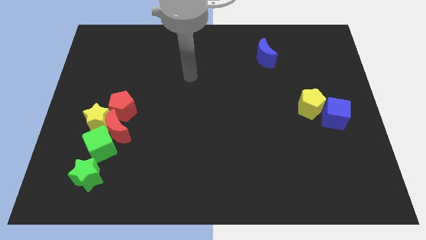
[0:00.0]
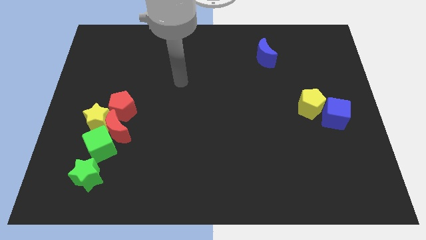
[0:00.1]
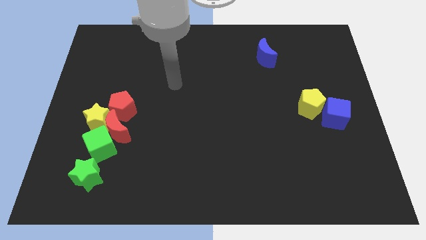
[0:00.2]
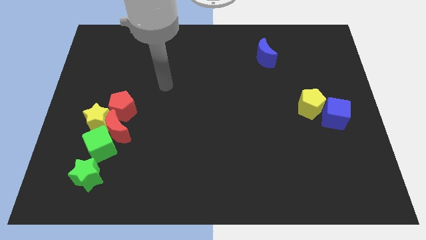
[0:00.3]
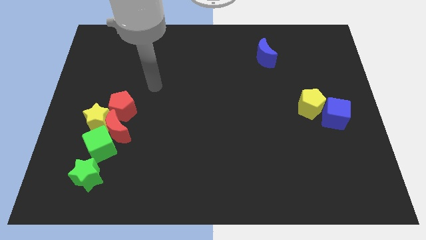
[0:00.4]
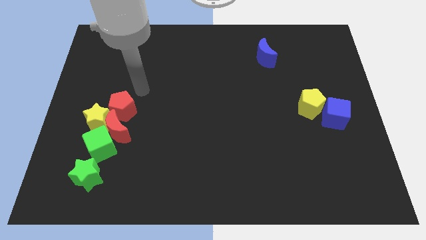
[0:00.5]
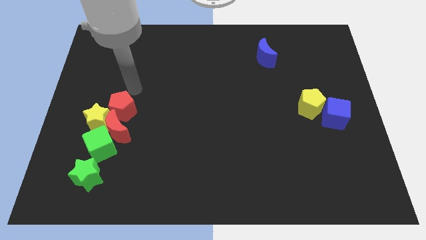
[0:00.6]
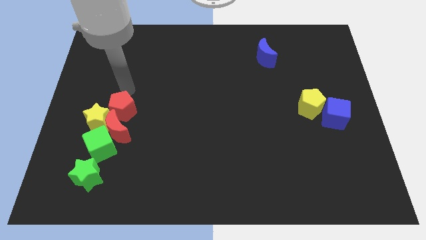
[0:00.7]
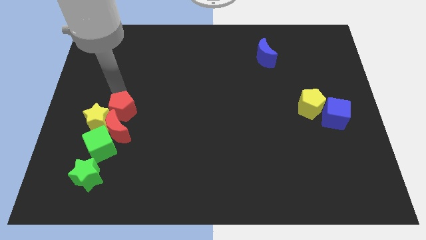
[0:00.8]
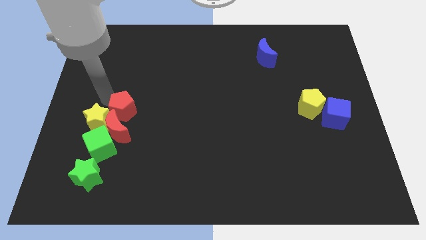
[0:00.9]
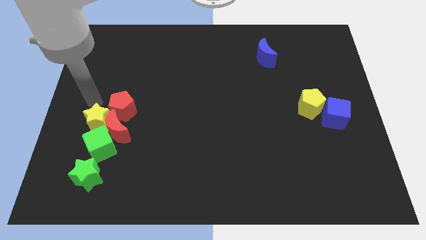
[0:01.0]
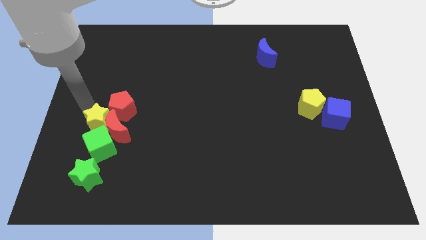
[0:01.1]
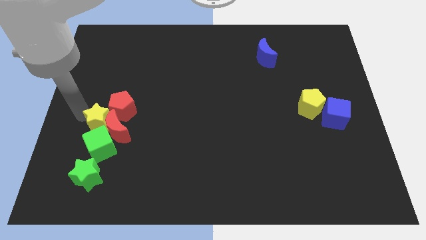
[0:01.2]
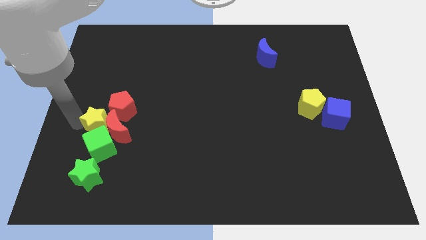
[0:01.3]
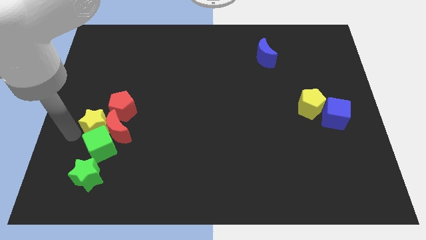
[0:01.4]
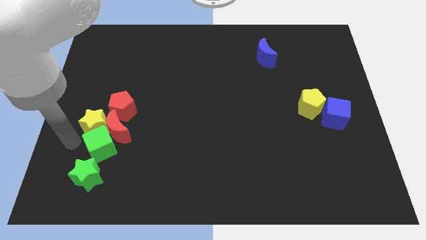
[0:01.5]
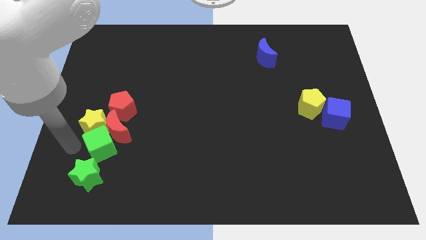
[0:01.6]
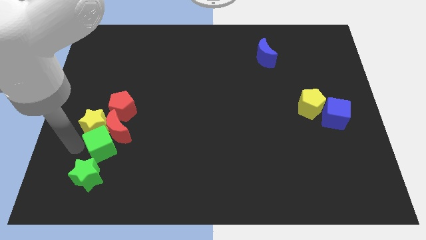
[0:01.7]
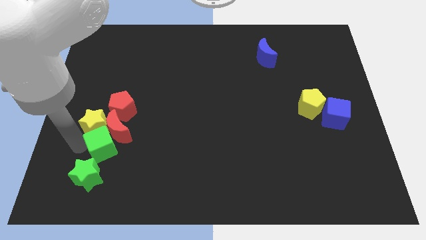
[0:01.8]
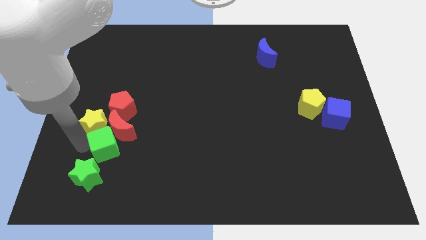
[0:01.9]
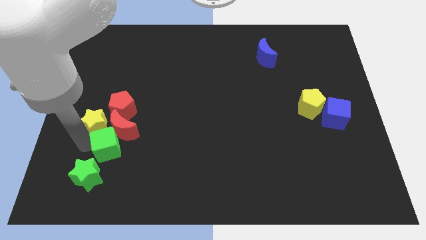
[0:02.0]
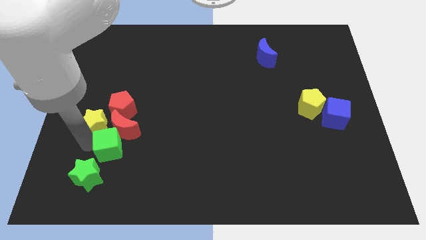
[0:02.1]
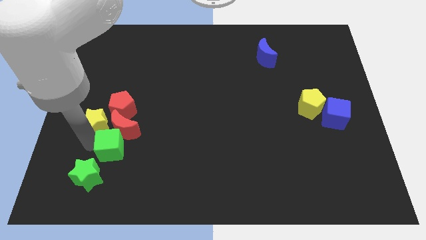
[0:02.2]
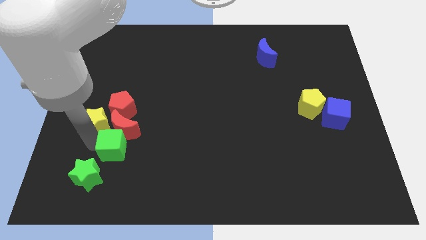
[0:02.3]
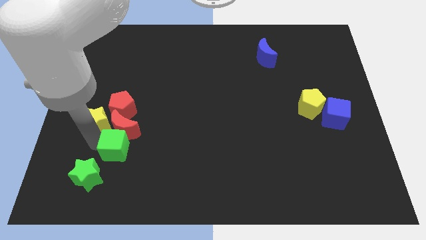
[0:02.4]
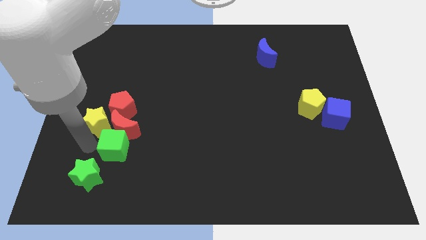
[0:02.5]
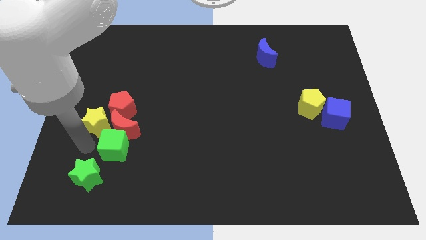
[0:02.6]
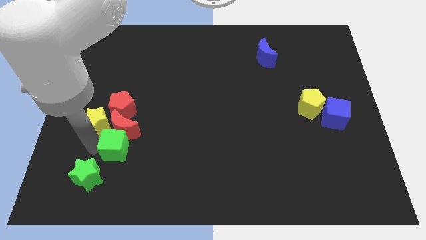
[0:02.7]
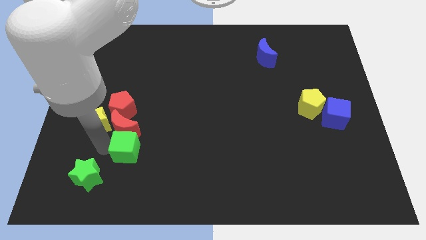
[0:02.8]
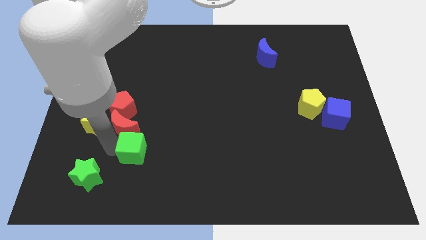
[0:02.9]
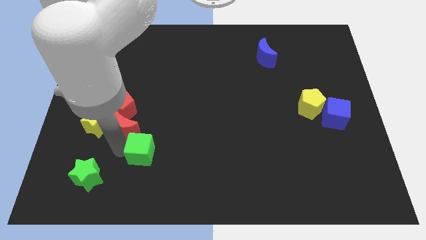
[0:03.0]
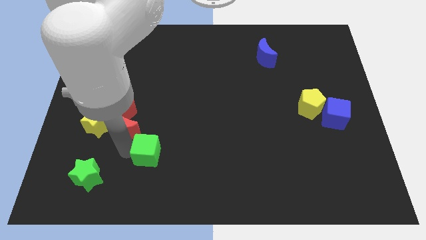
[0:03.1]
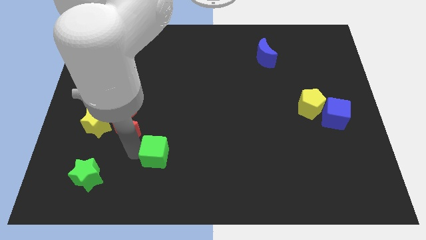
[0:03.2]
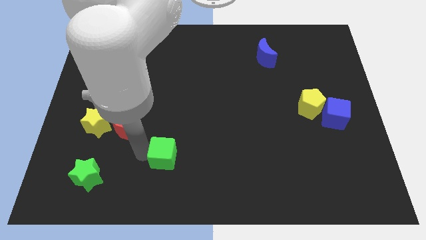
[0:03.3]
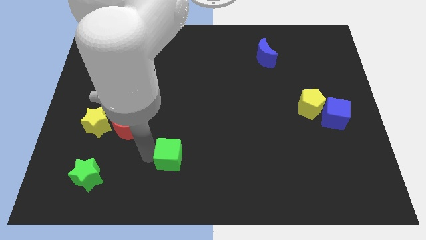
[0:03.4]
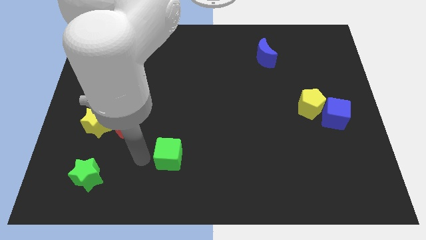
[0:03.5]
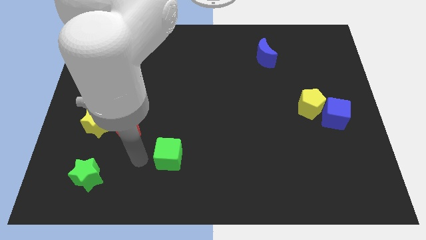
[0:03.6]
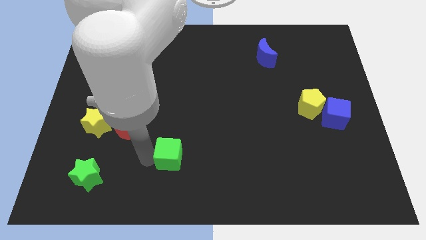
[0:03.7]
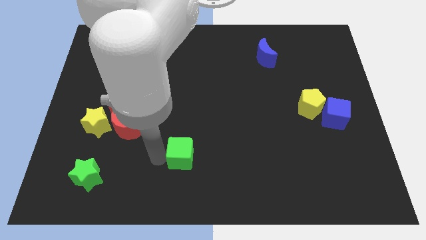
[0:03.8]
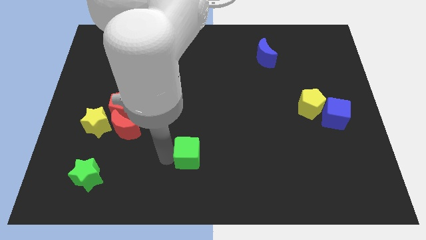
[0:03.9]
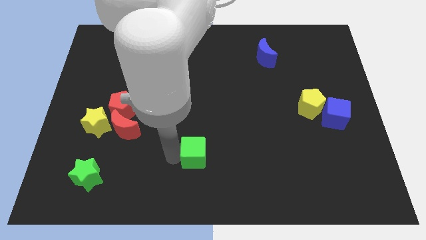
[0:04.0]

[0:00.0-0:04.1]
move the green cube right

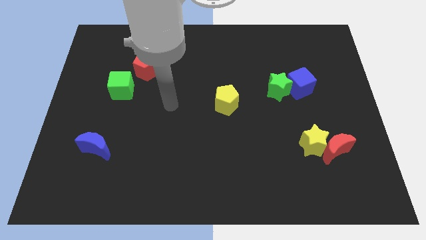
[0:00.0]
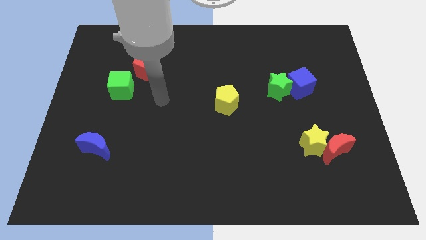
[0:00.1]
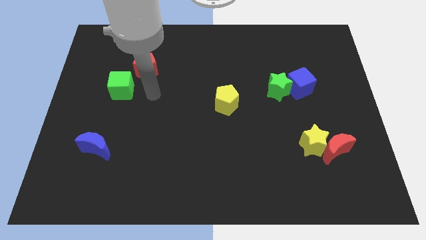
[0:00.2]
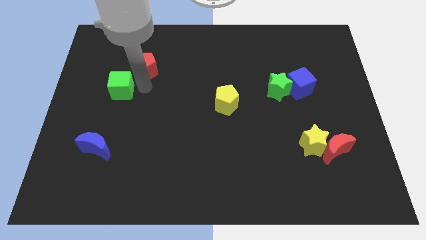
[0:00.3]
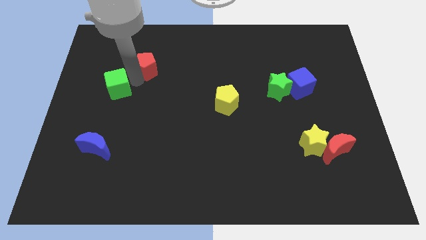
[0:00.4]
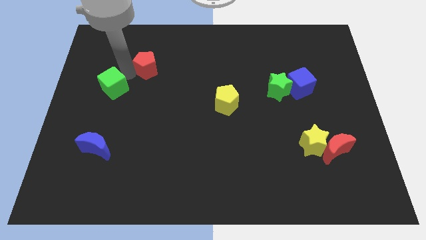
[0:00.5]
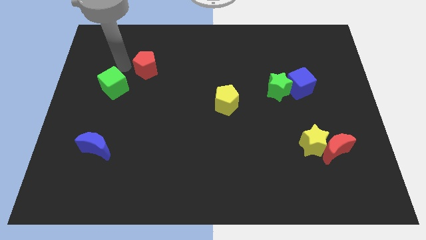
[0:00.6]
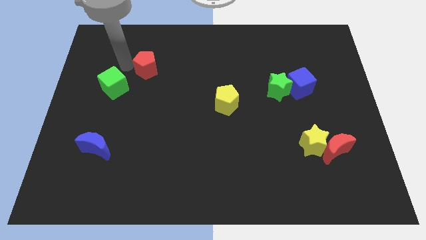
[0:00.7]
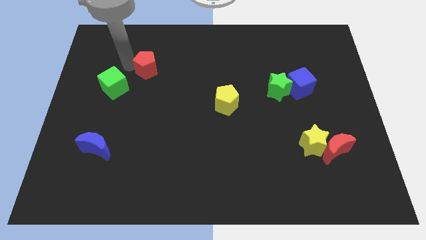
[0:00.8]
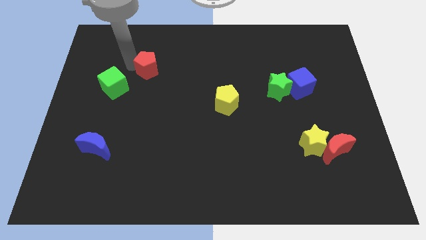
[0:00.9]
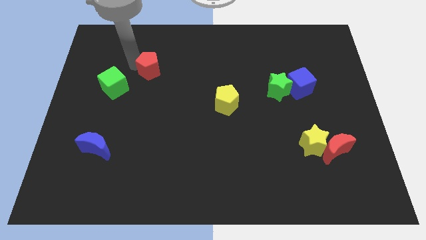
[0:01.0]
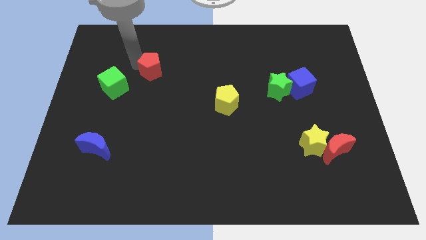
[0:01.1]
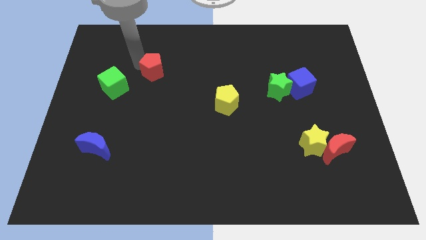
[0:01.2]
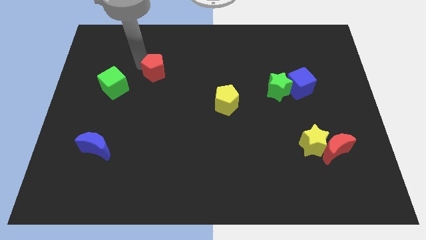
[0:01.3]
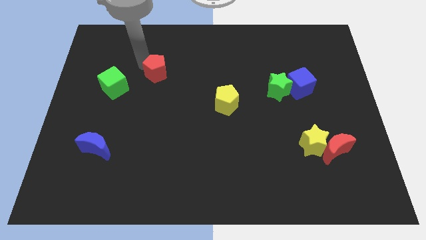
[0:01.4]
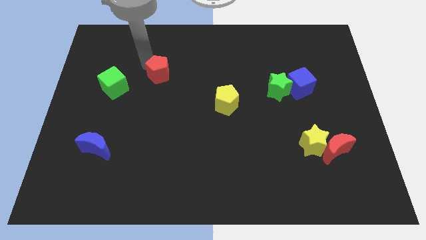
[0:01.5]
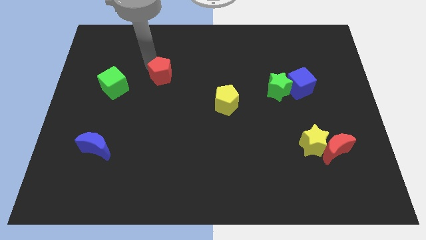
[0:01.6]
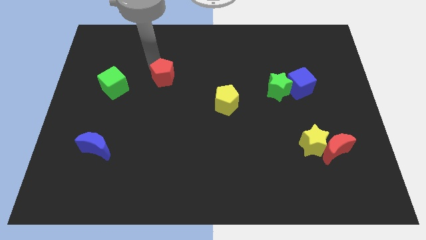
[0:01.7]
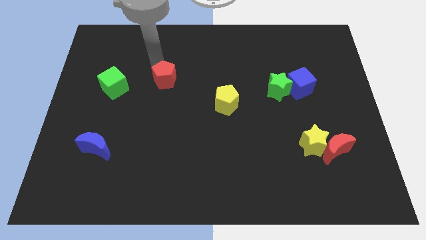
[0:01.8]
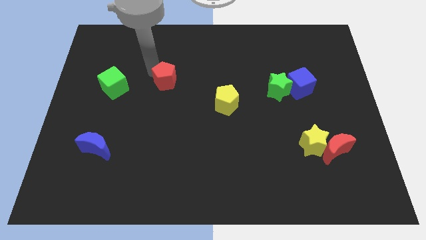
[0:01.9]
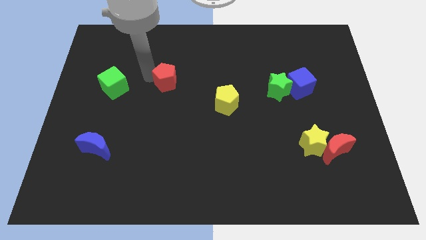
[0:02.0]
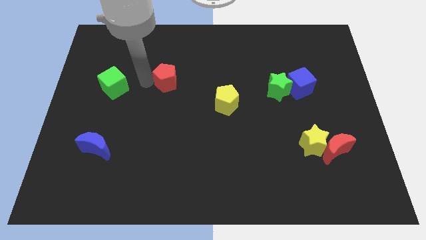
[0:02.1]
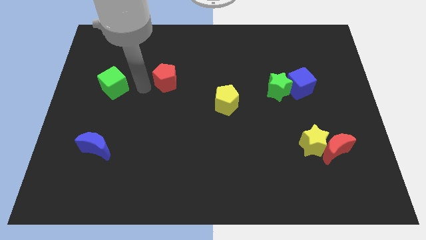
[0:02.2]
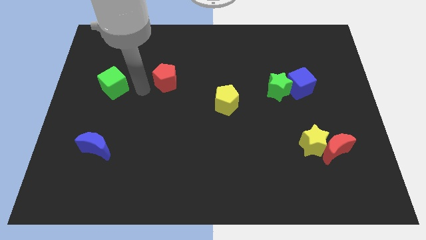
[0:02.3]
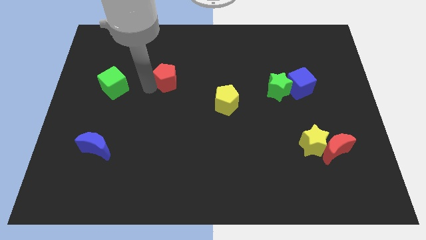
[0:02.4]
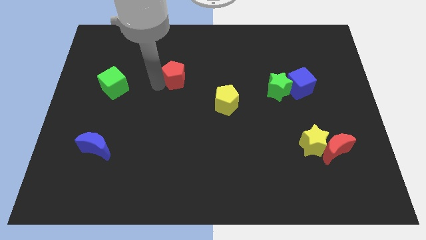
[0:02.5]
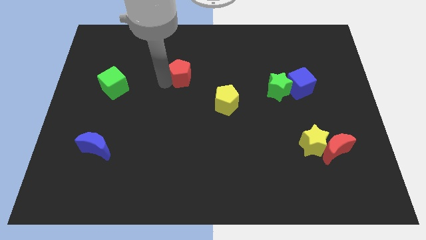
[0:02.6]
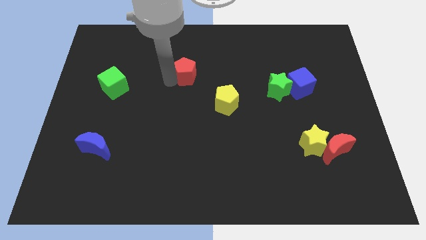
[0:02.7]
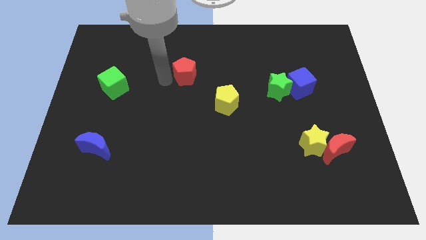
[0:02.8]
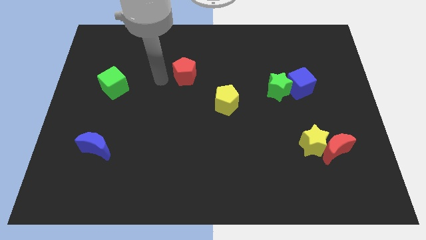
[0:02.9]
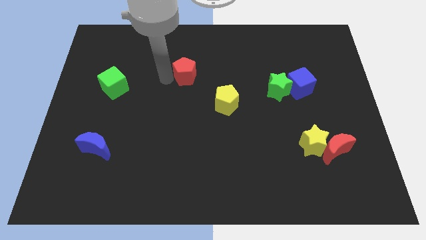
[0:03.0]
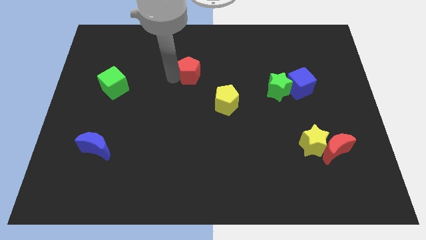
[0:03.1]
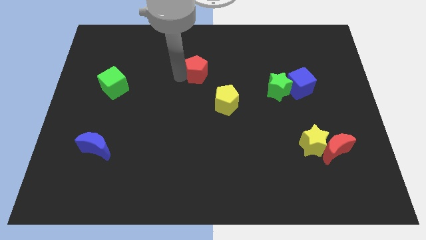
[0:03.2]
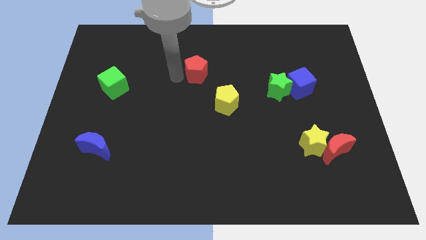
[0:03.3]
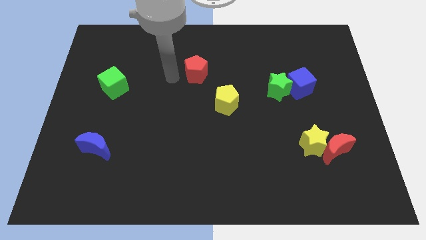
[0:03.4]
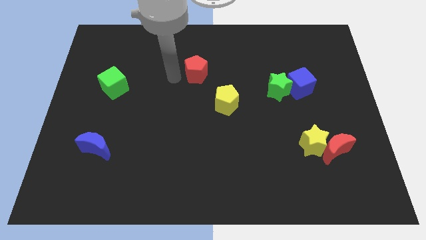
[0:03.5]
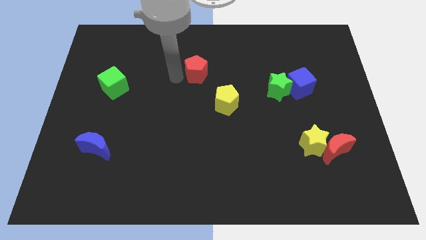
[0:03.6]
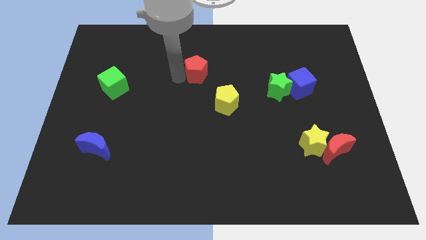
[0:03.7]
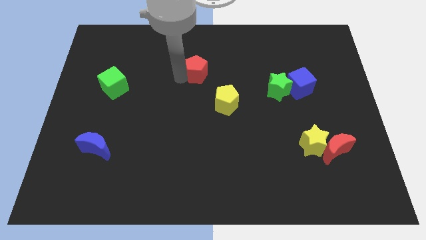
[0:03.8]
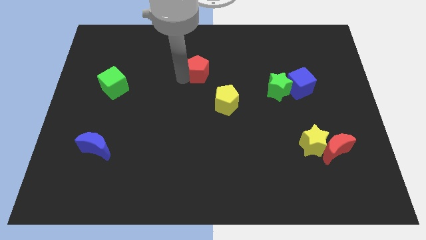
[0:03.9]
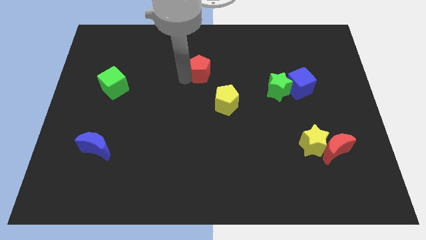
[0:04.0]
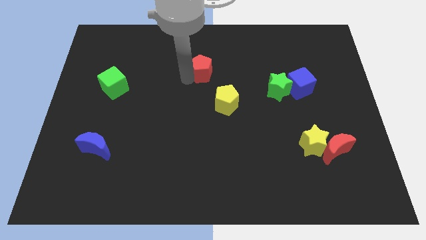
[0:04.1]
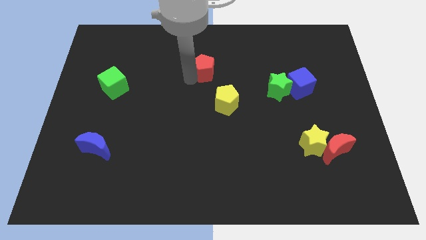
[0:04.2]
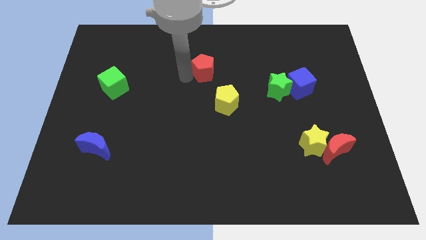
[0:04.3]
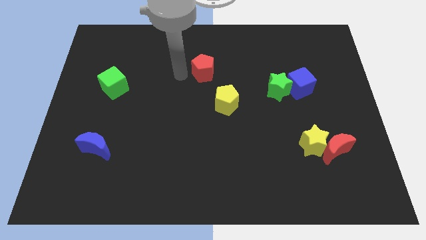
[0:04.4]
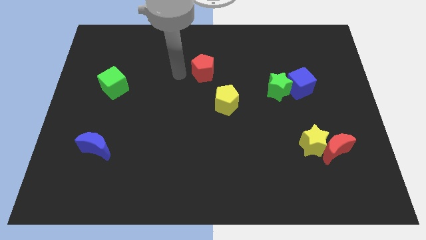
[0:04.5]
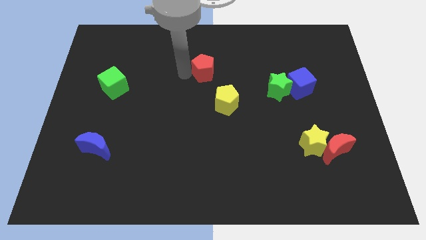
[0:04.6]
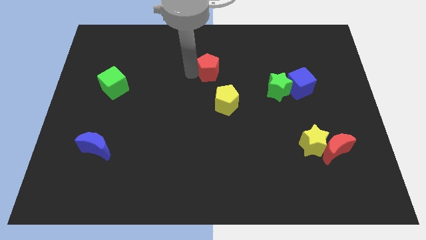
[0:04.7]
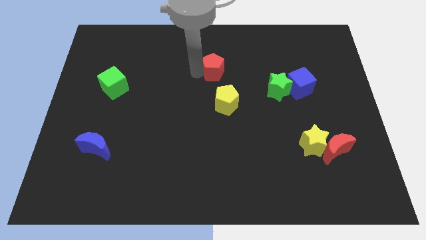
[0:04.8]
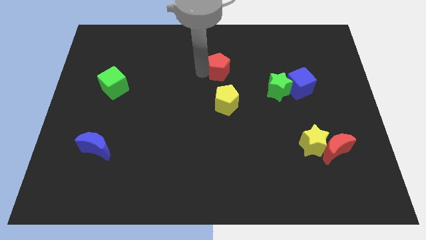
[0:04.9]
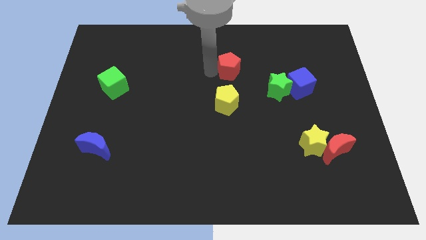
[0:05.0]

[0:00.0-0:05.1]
move the red pentagon right
